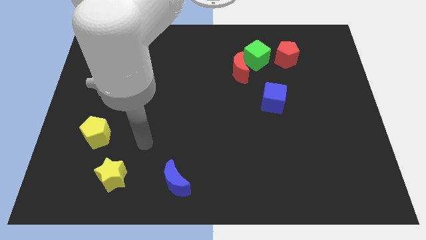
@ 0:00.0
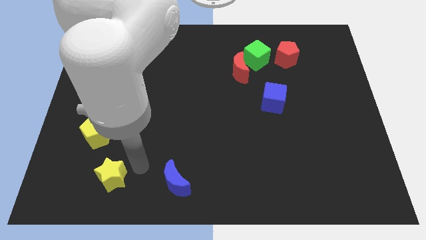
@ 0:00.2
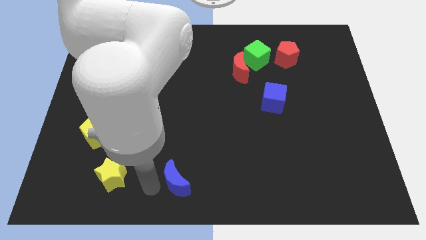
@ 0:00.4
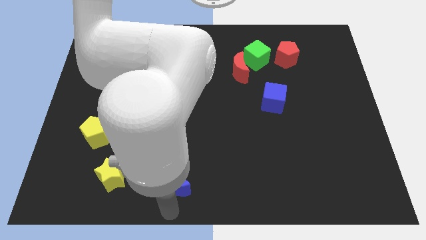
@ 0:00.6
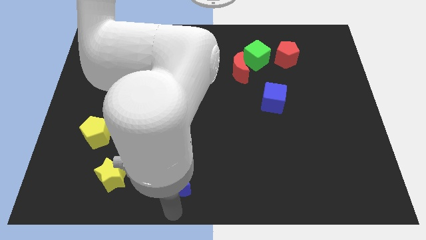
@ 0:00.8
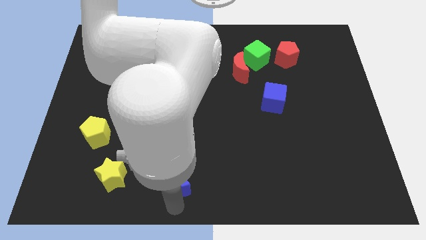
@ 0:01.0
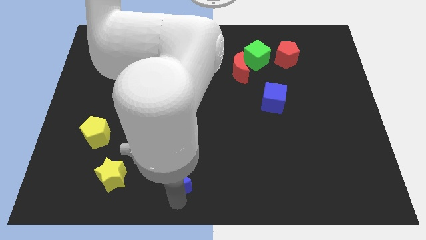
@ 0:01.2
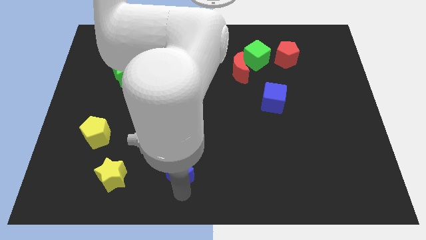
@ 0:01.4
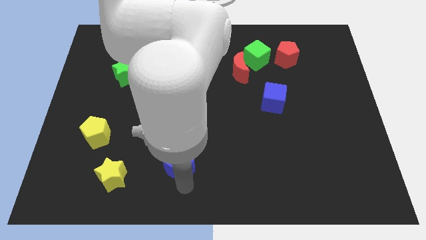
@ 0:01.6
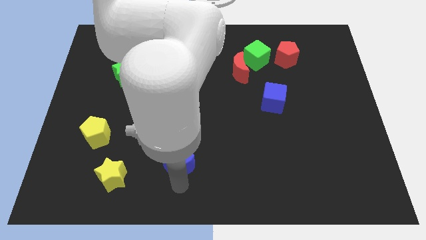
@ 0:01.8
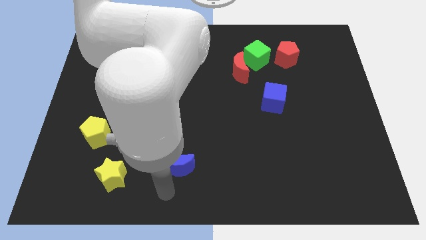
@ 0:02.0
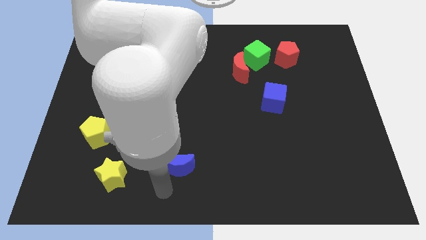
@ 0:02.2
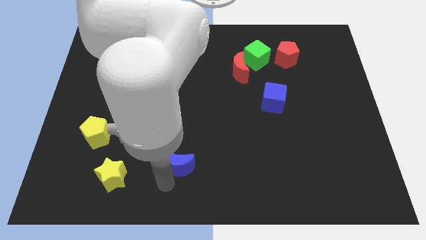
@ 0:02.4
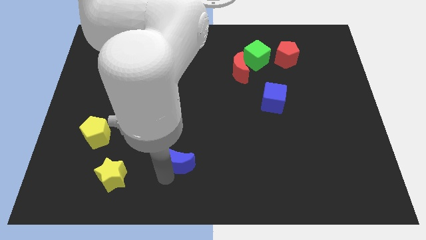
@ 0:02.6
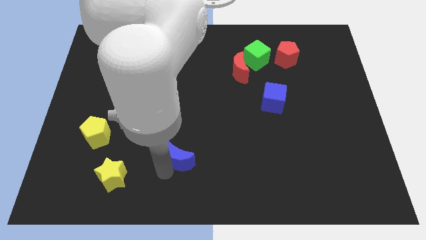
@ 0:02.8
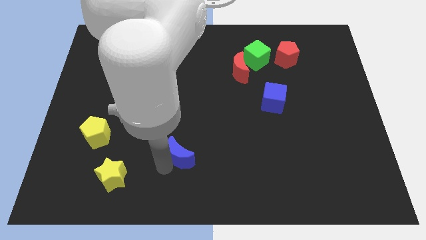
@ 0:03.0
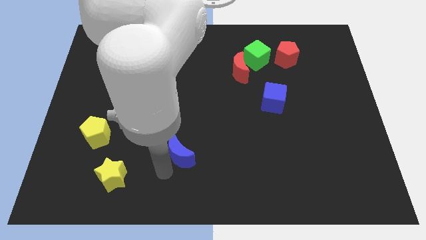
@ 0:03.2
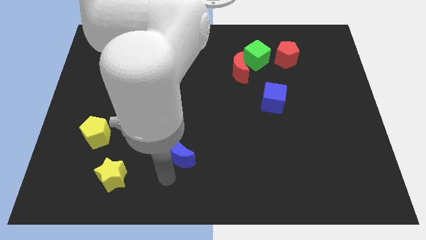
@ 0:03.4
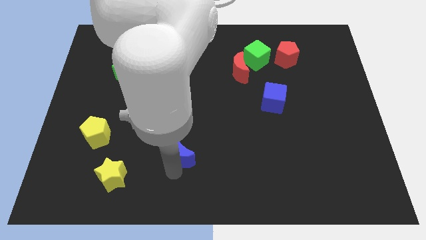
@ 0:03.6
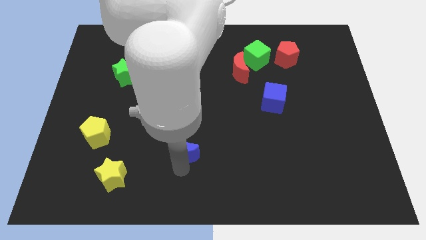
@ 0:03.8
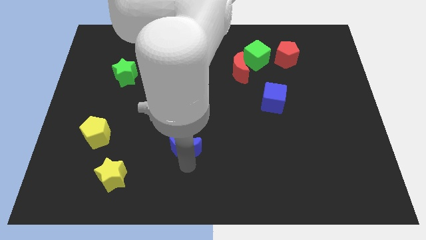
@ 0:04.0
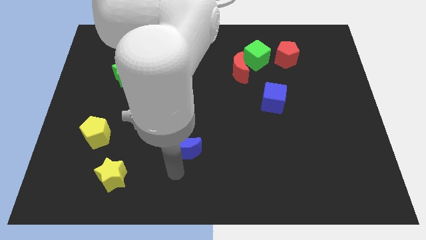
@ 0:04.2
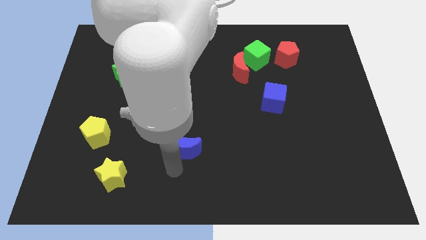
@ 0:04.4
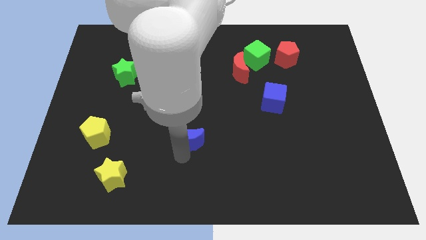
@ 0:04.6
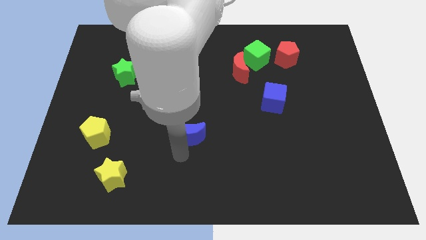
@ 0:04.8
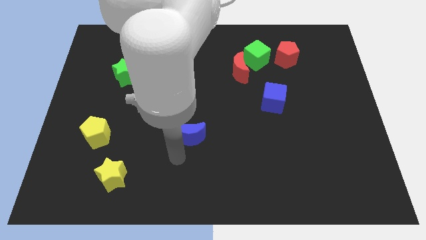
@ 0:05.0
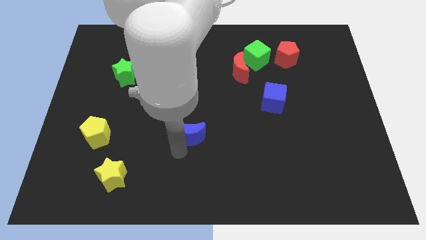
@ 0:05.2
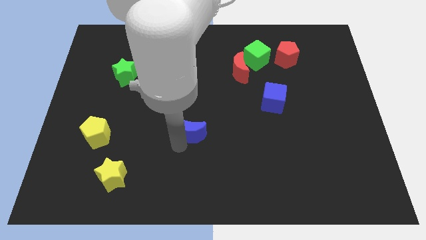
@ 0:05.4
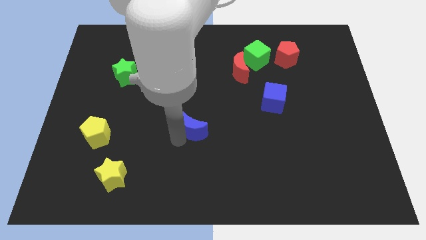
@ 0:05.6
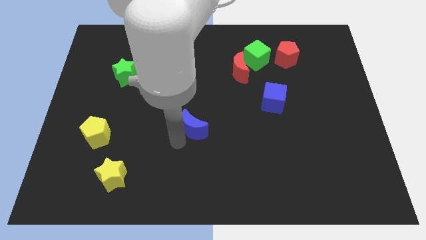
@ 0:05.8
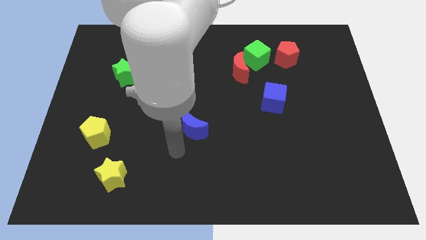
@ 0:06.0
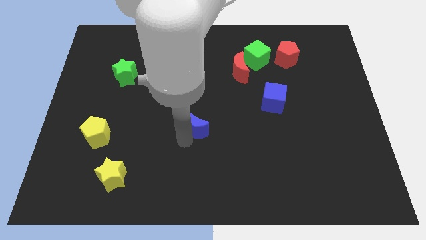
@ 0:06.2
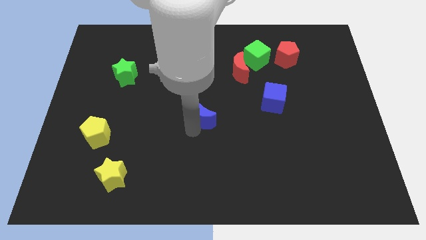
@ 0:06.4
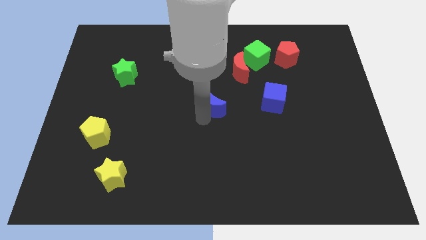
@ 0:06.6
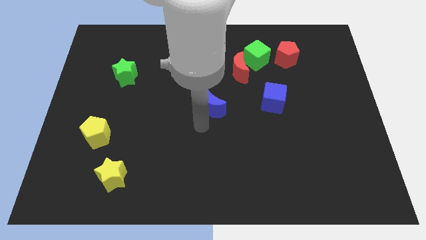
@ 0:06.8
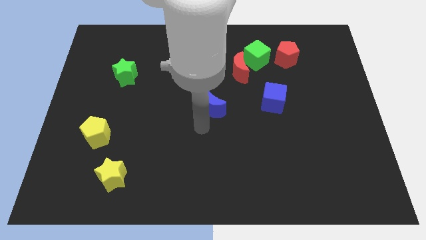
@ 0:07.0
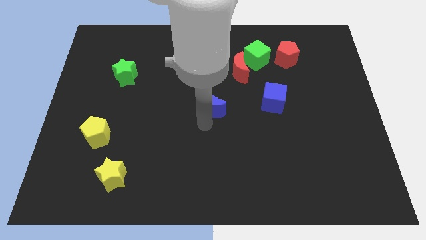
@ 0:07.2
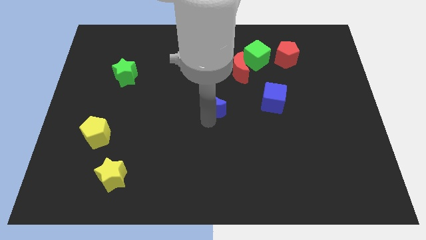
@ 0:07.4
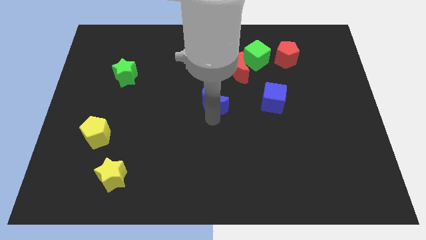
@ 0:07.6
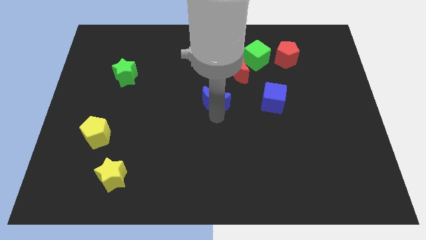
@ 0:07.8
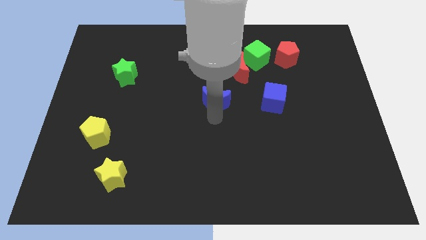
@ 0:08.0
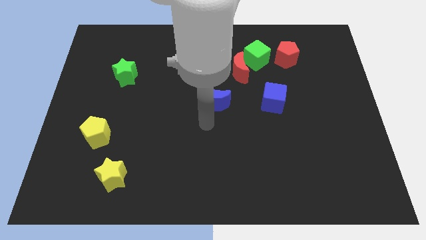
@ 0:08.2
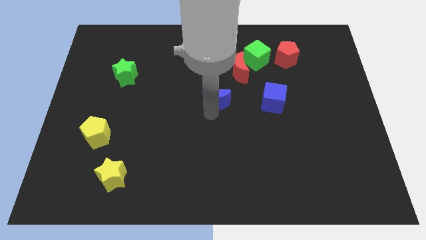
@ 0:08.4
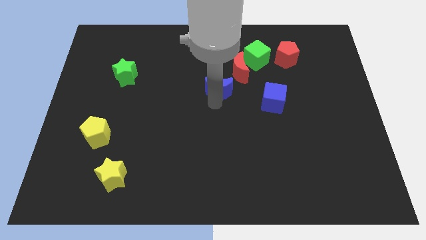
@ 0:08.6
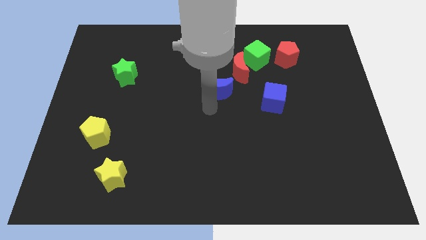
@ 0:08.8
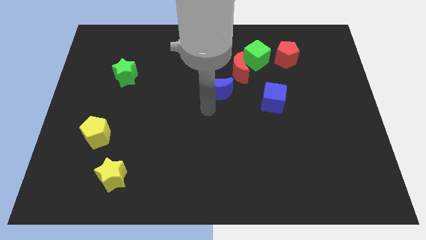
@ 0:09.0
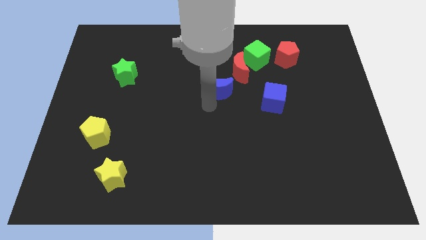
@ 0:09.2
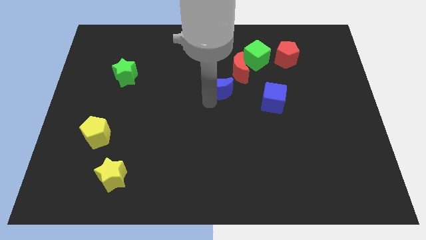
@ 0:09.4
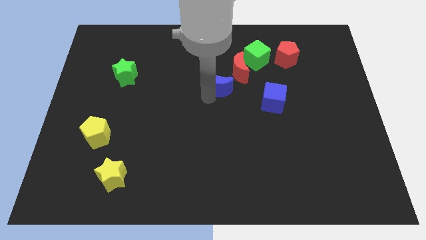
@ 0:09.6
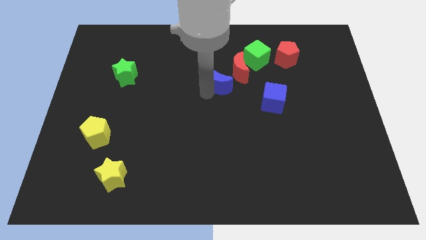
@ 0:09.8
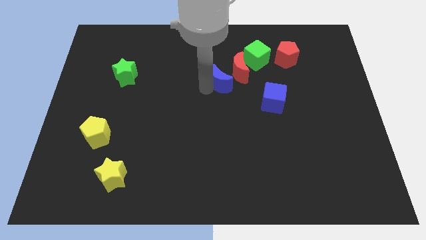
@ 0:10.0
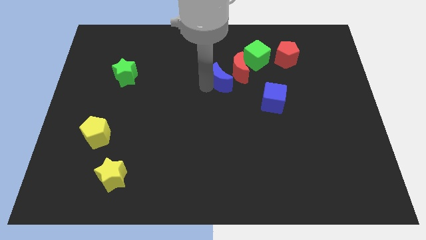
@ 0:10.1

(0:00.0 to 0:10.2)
push the blue moon next to the red moon

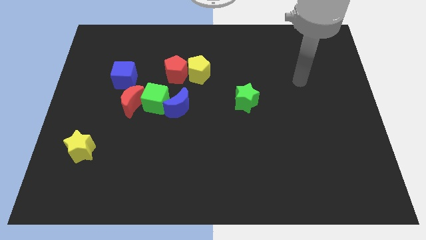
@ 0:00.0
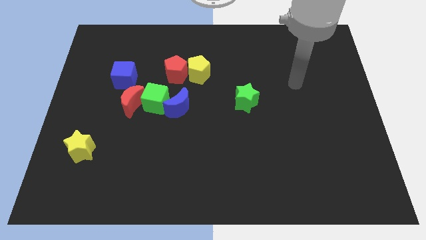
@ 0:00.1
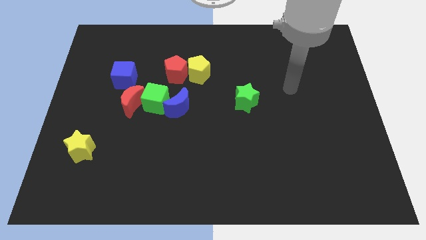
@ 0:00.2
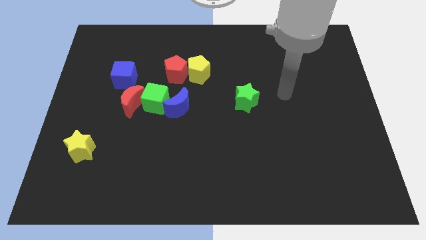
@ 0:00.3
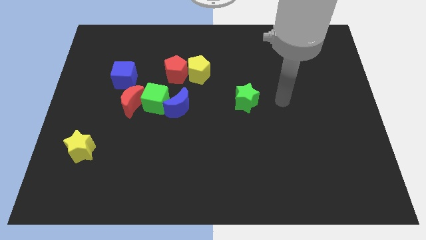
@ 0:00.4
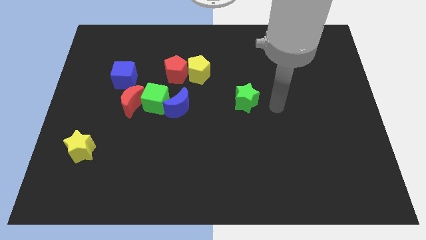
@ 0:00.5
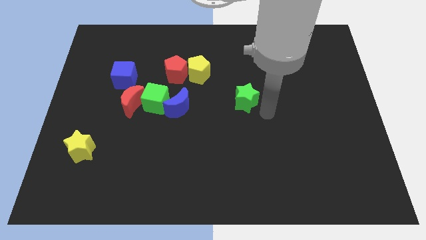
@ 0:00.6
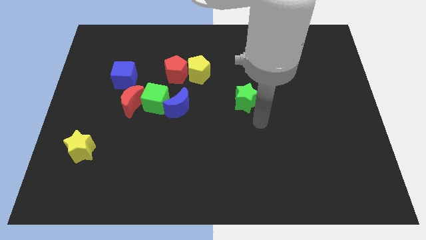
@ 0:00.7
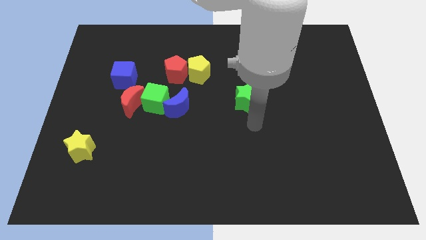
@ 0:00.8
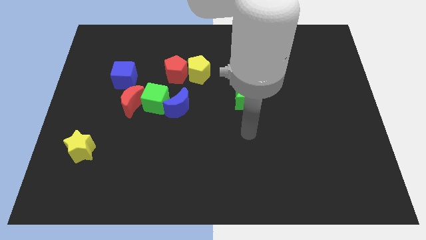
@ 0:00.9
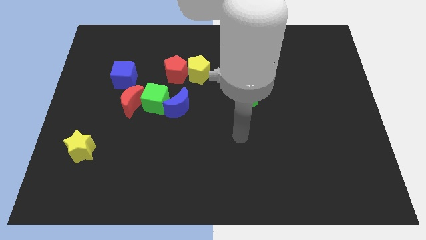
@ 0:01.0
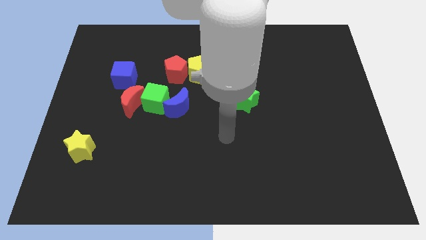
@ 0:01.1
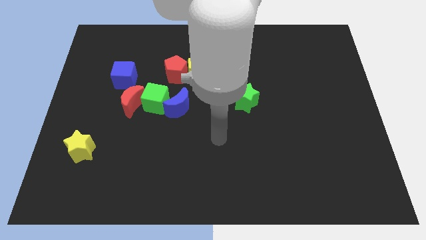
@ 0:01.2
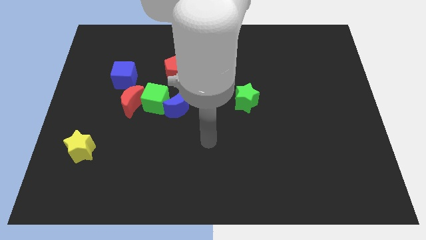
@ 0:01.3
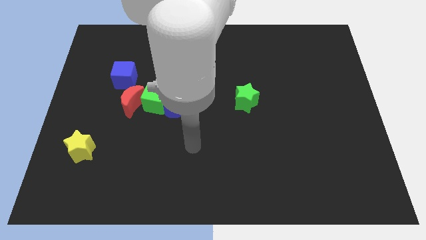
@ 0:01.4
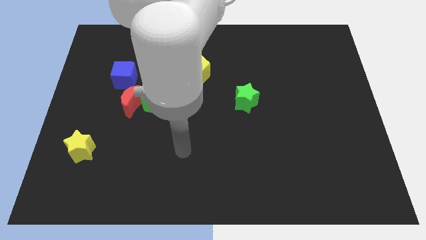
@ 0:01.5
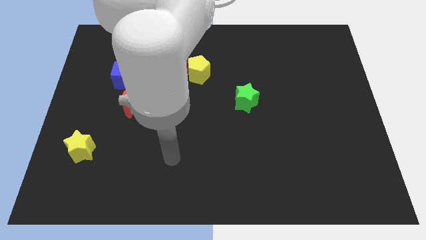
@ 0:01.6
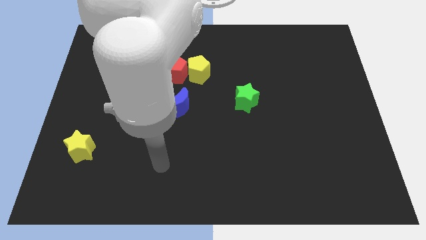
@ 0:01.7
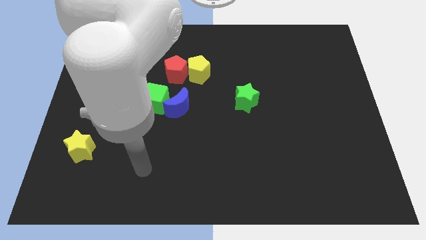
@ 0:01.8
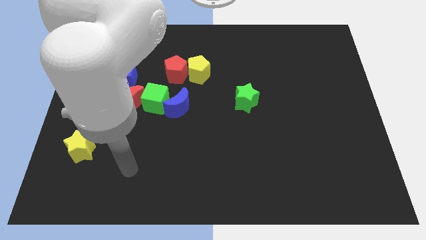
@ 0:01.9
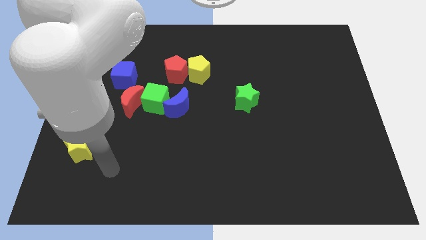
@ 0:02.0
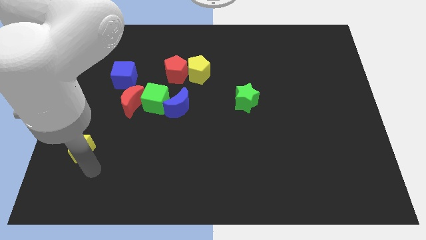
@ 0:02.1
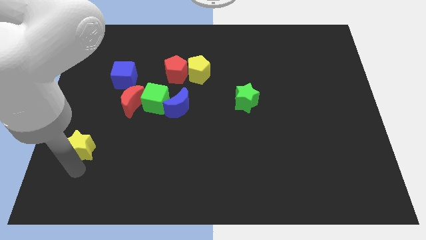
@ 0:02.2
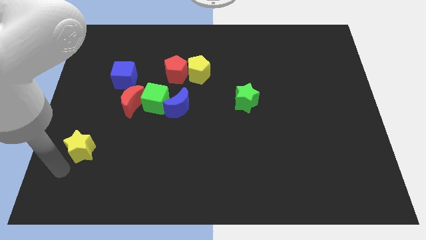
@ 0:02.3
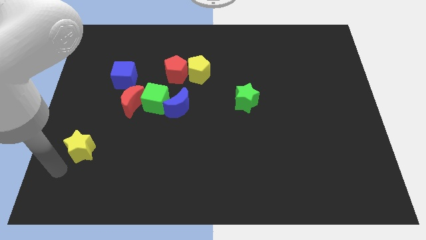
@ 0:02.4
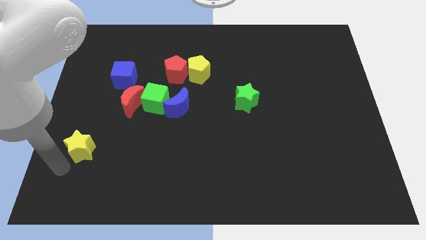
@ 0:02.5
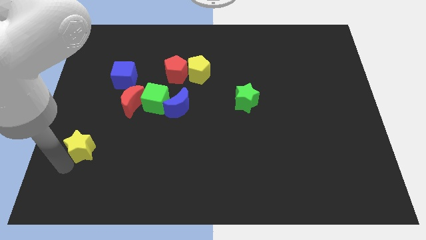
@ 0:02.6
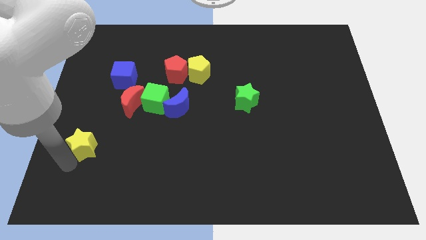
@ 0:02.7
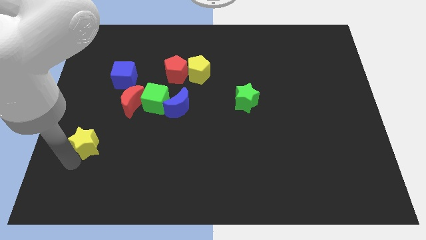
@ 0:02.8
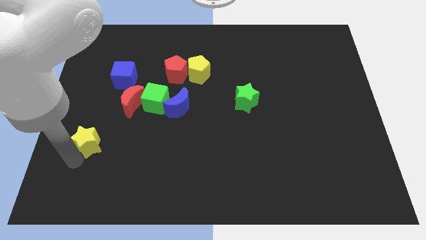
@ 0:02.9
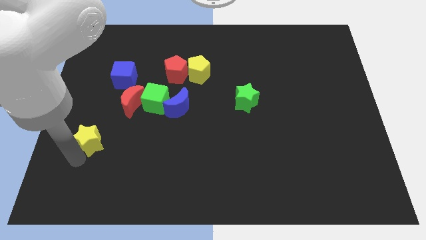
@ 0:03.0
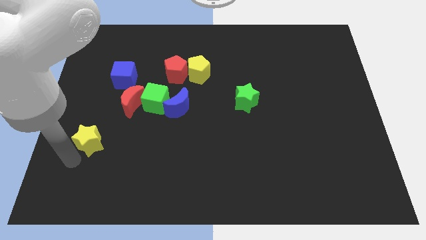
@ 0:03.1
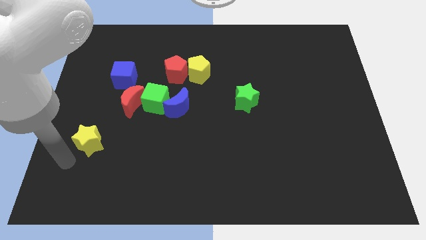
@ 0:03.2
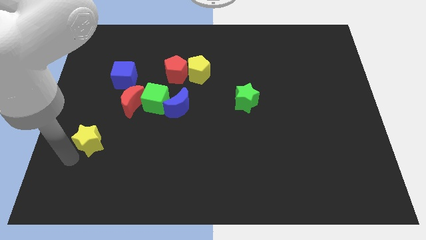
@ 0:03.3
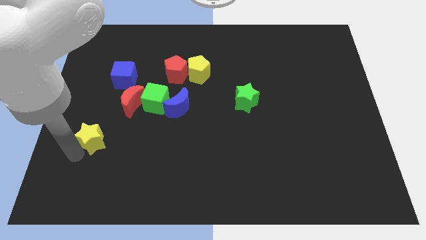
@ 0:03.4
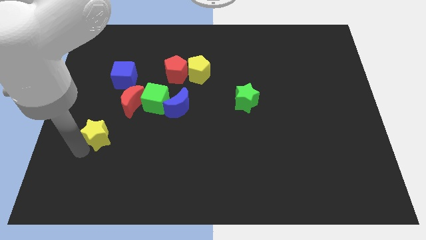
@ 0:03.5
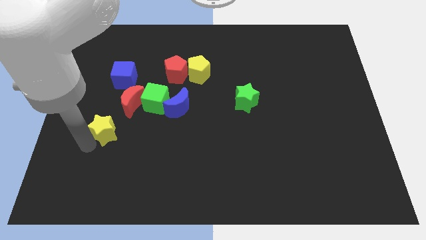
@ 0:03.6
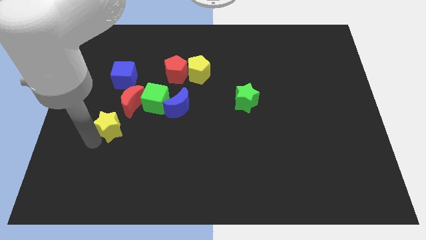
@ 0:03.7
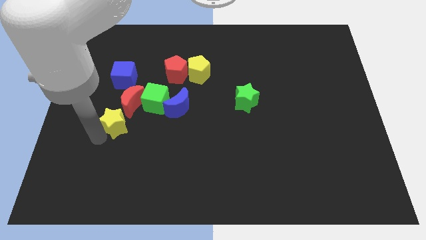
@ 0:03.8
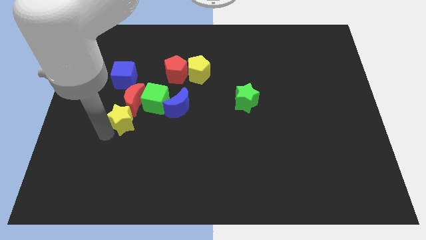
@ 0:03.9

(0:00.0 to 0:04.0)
slide the yellow star to the red moon
